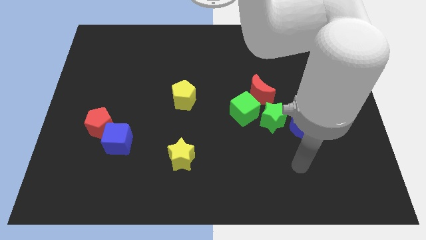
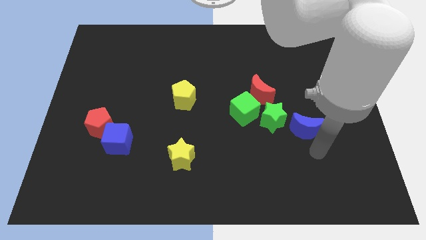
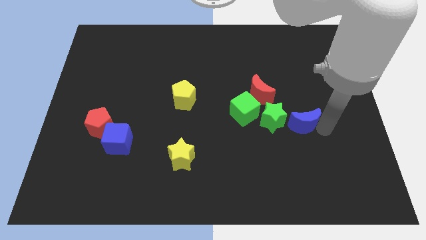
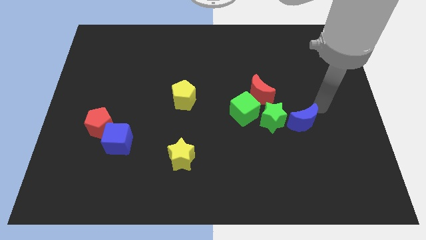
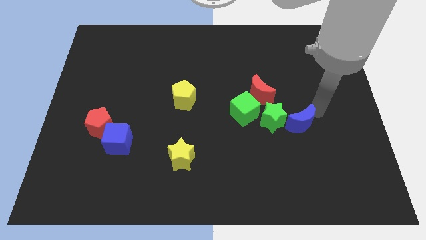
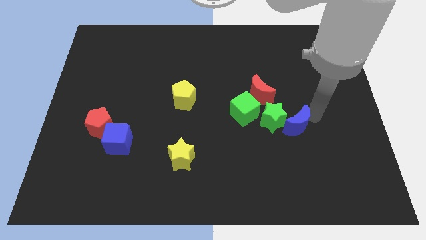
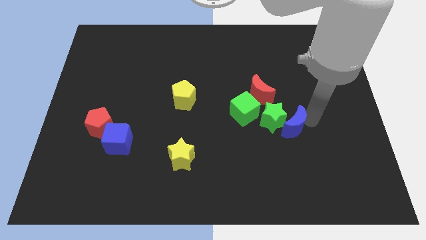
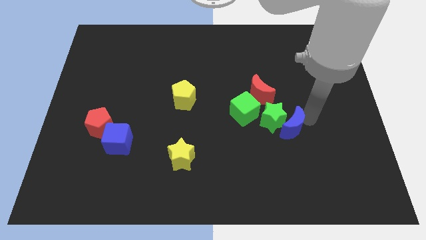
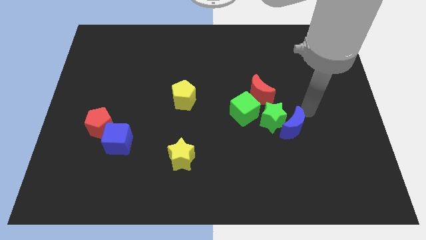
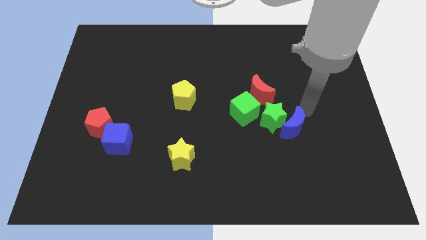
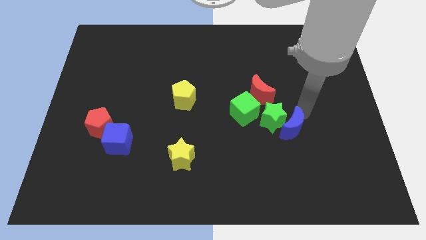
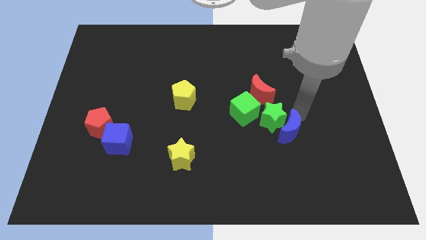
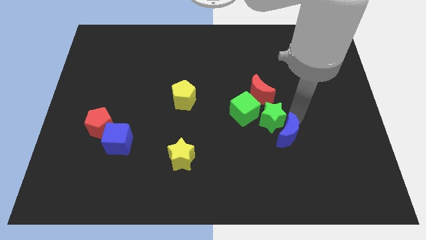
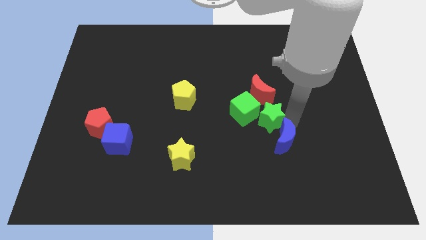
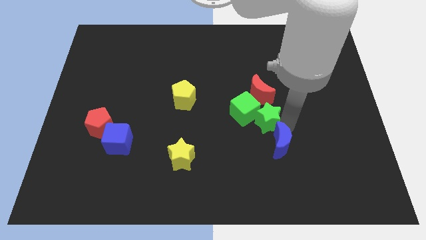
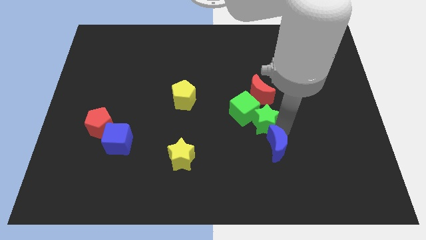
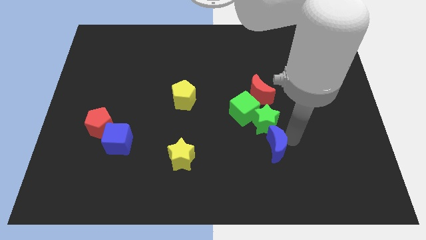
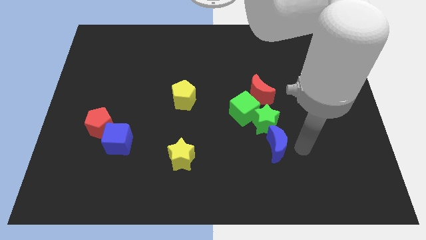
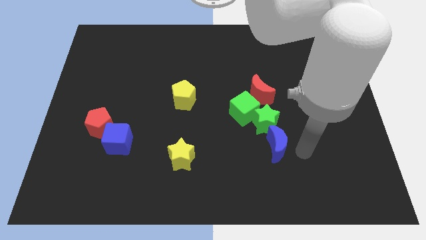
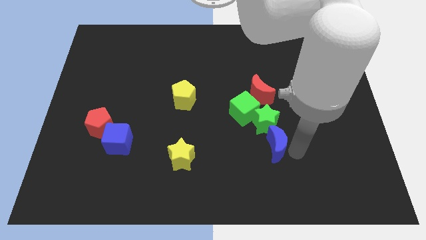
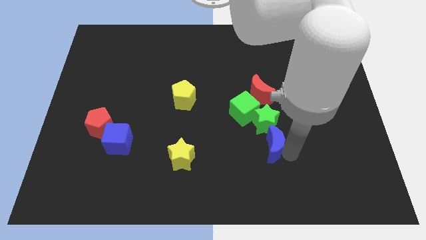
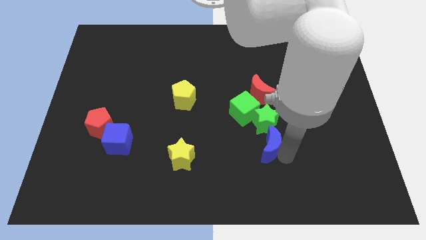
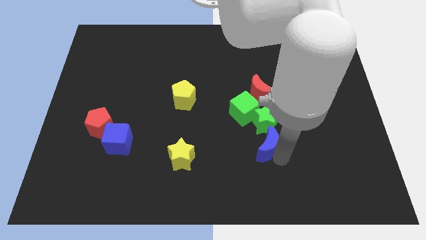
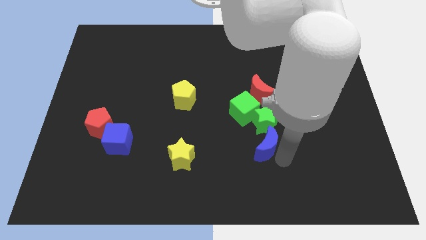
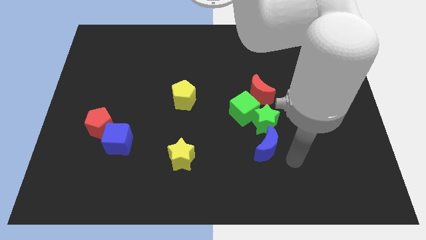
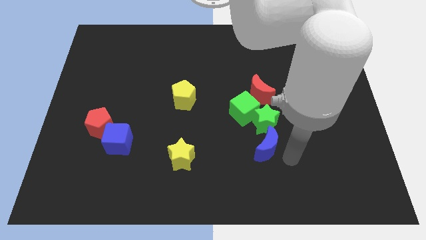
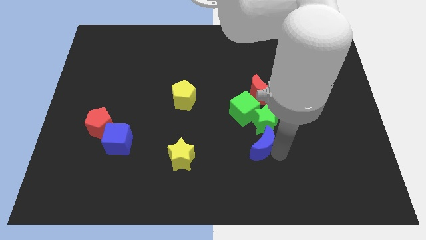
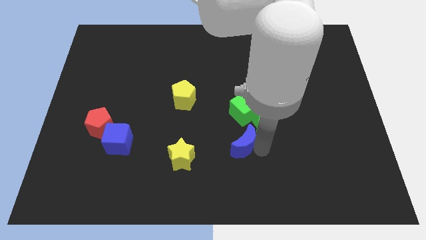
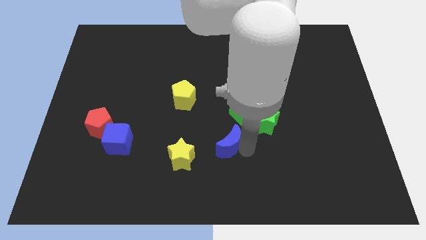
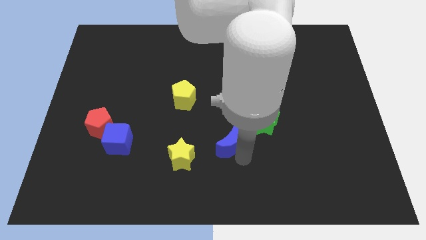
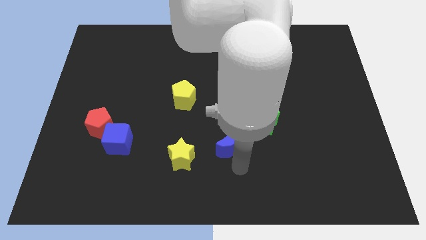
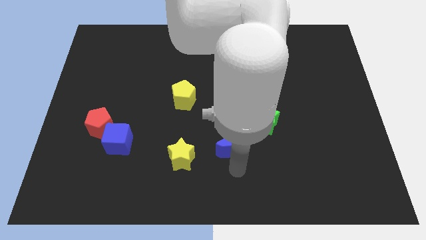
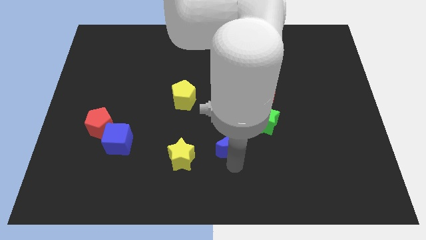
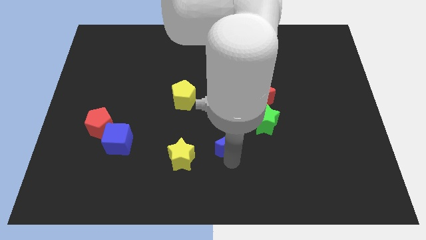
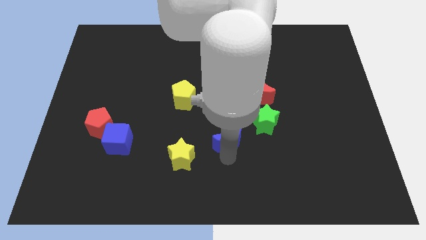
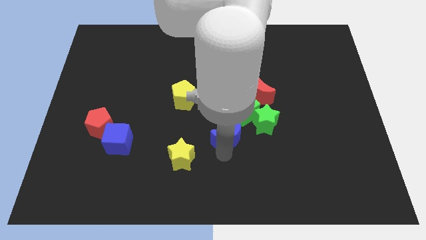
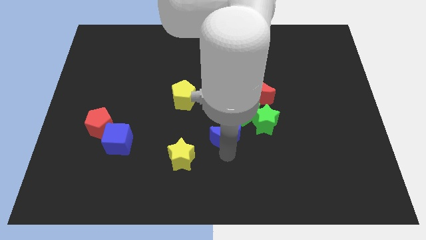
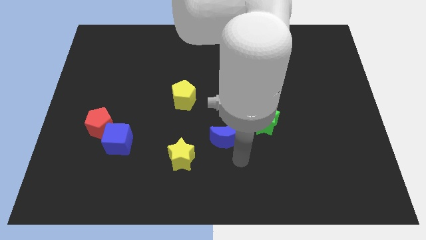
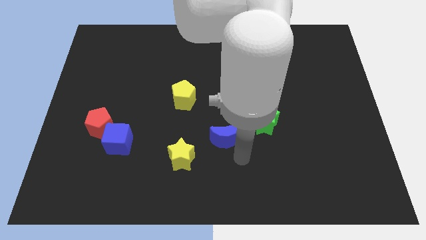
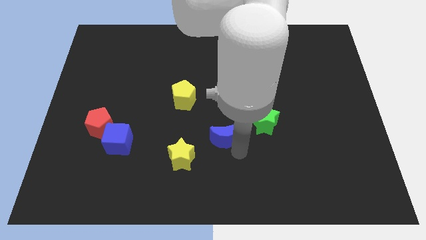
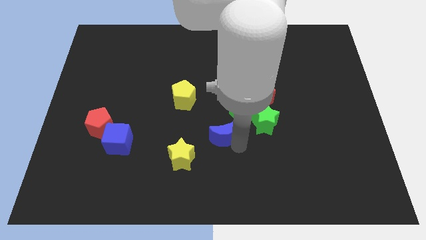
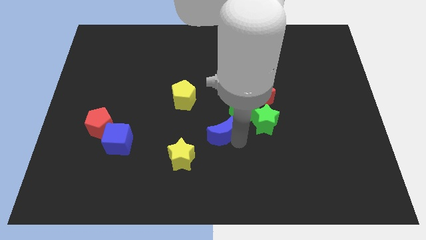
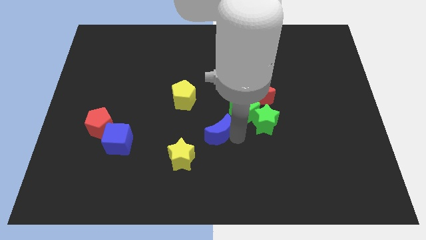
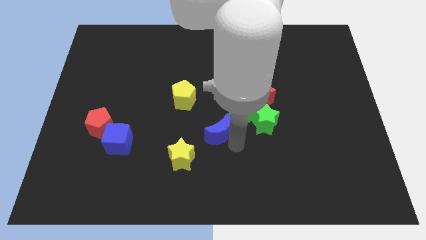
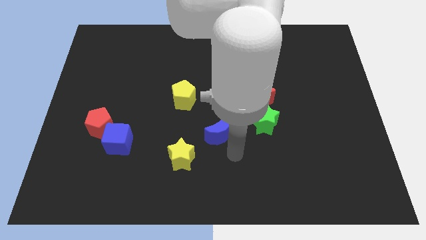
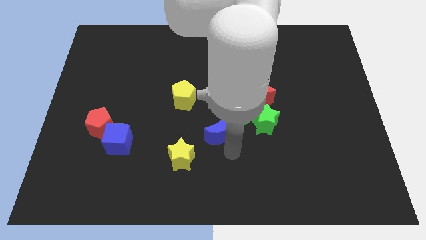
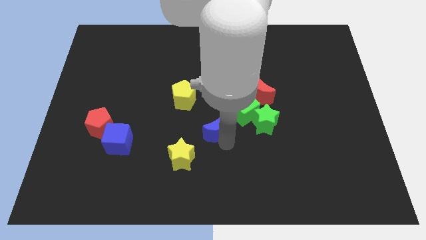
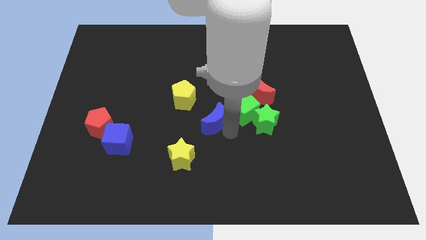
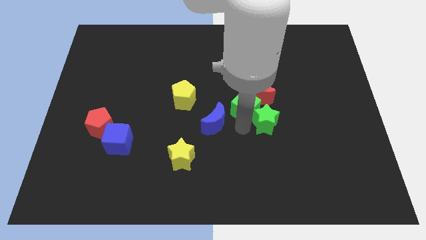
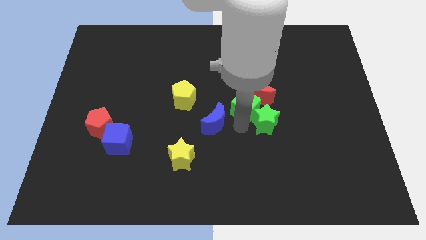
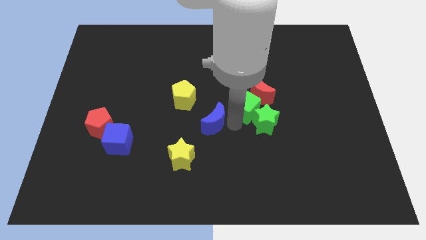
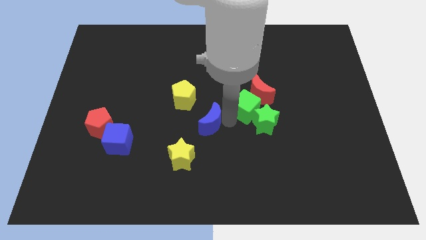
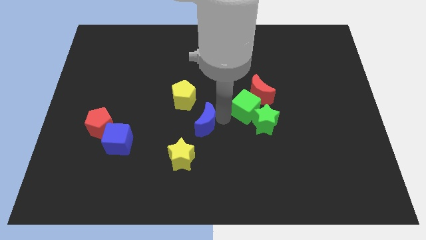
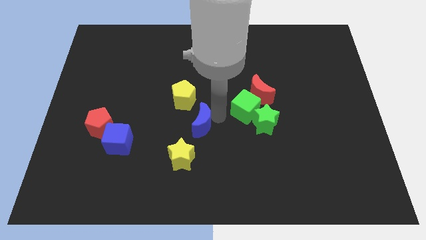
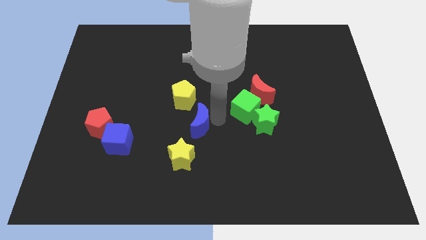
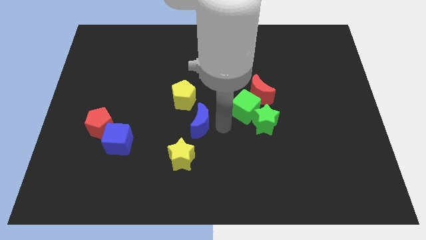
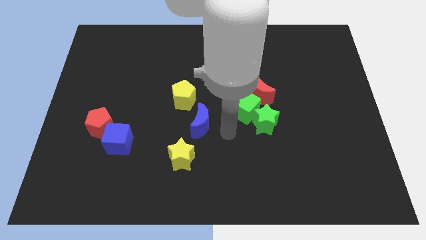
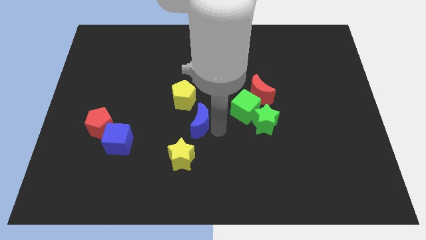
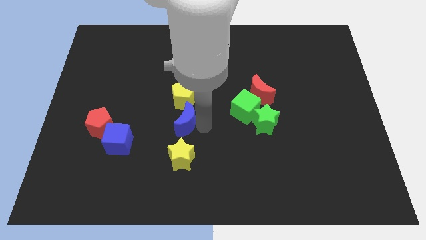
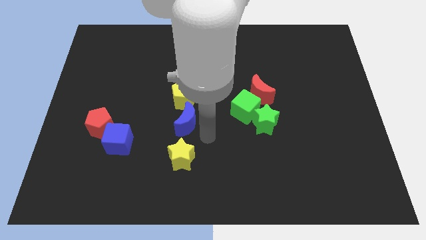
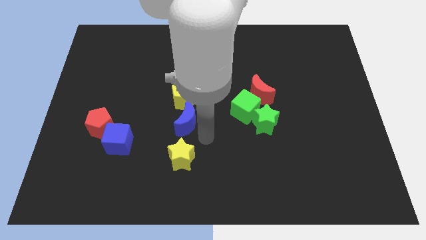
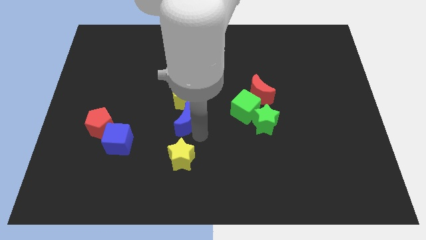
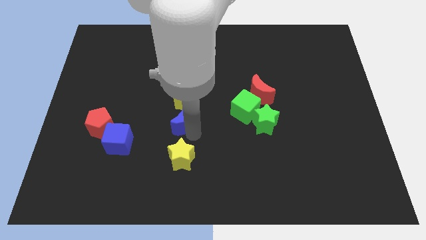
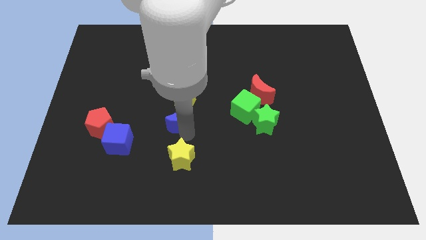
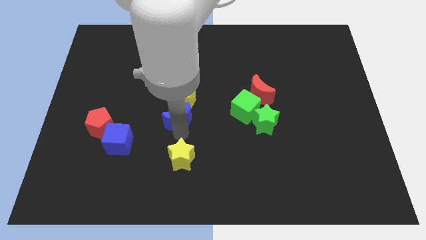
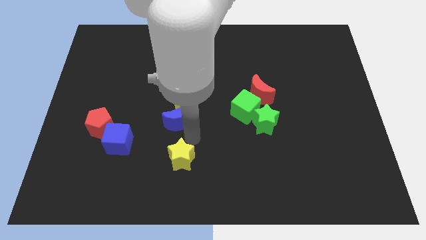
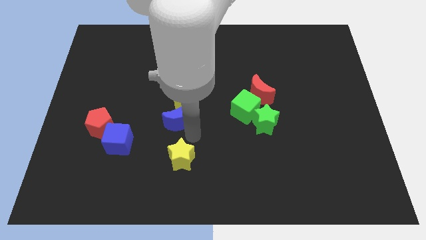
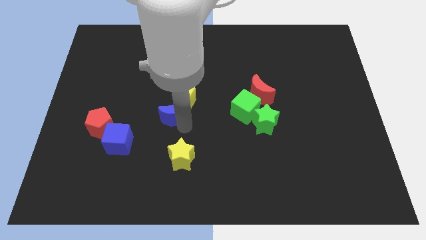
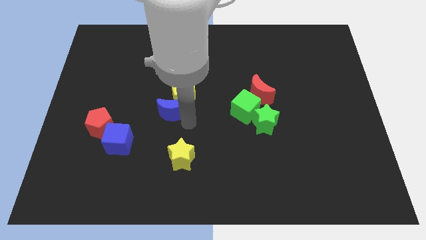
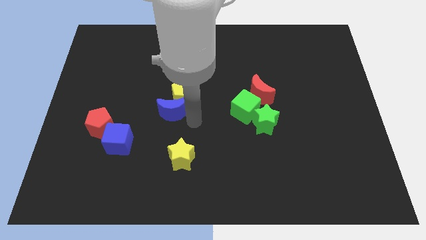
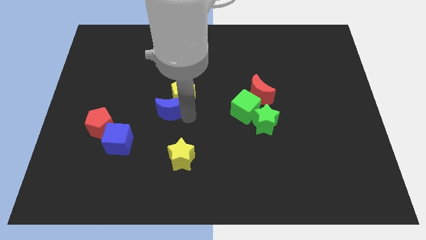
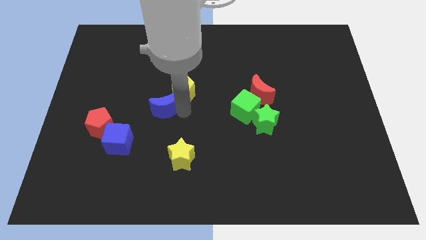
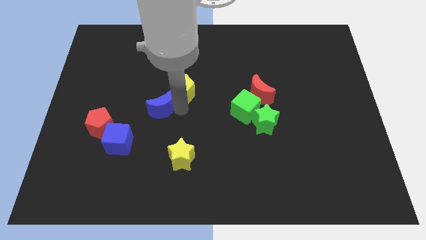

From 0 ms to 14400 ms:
put the blue moon just left of the yellow pentagon
